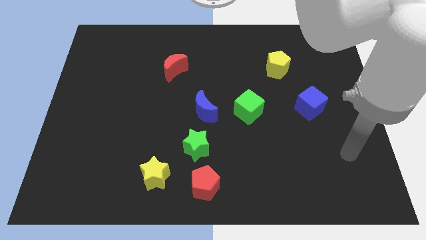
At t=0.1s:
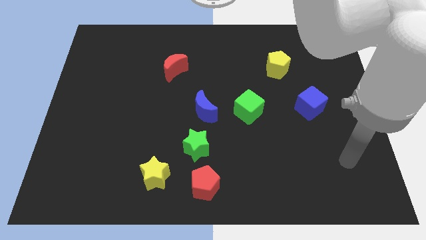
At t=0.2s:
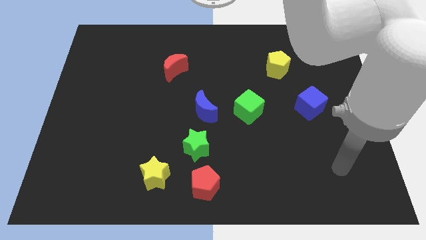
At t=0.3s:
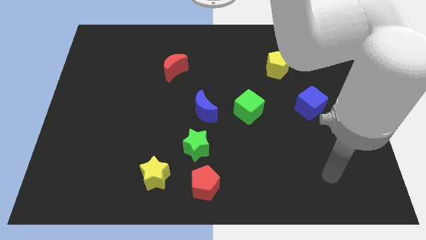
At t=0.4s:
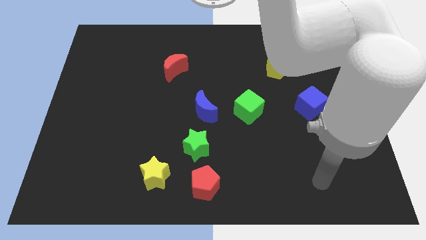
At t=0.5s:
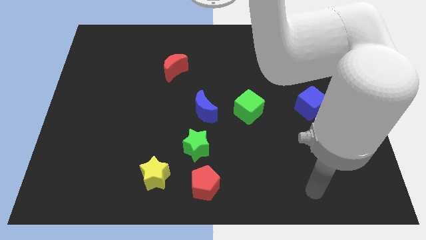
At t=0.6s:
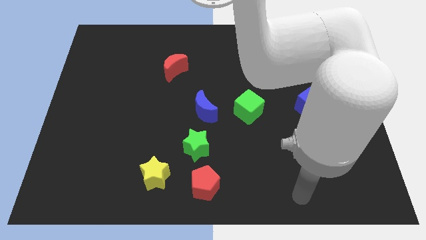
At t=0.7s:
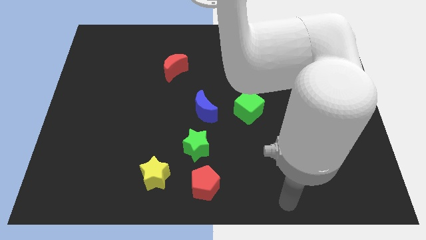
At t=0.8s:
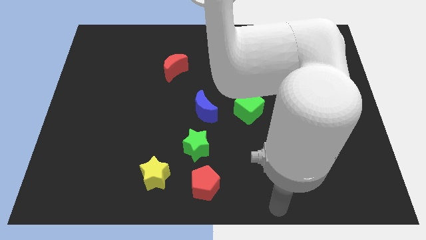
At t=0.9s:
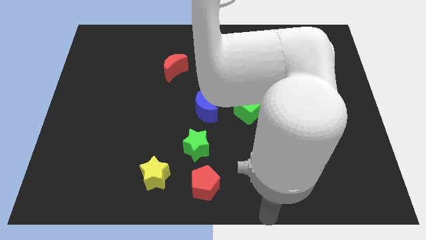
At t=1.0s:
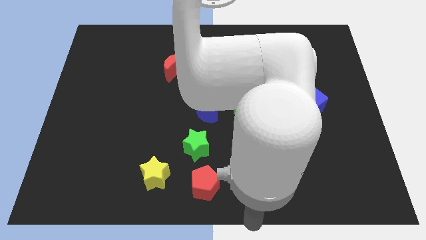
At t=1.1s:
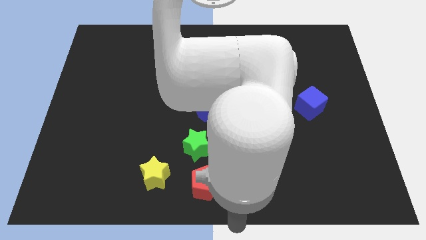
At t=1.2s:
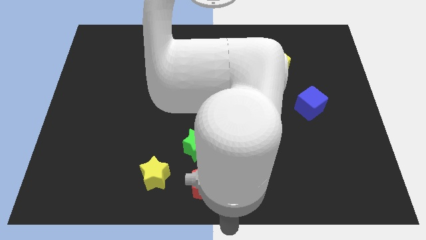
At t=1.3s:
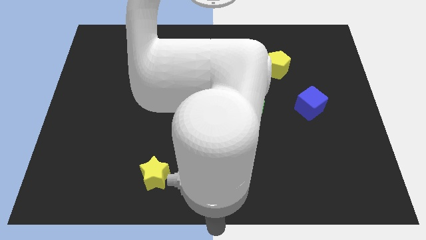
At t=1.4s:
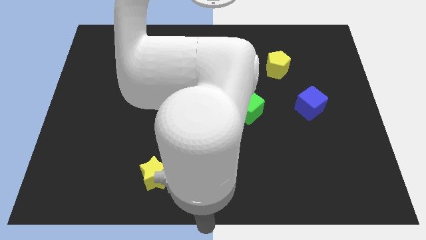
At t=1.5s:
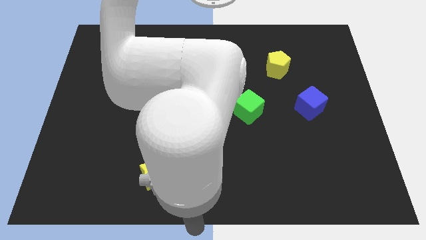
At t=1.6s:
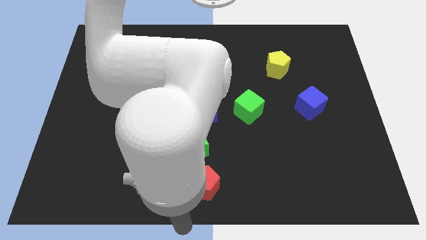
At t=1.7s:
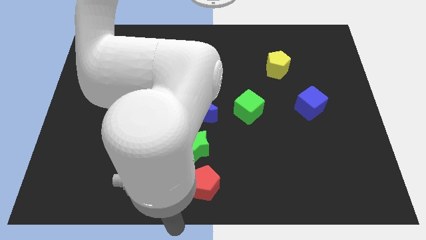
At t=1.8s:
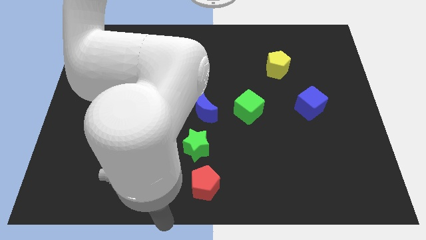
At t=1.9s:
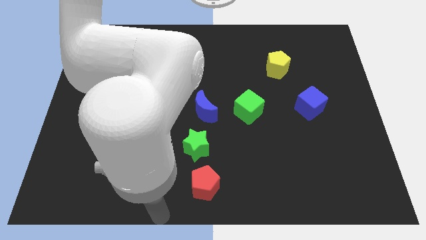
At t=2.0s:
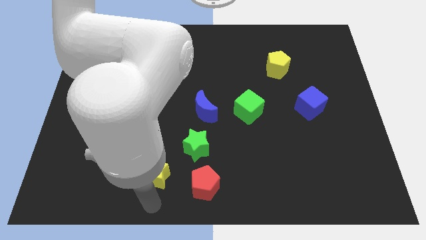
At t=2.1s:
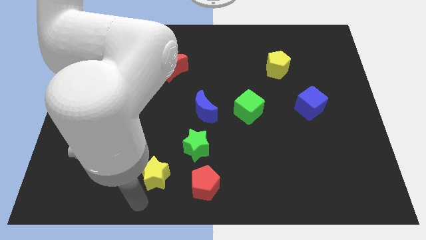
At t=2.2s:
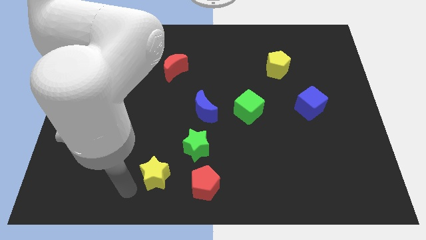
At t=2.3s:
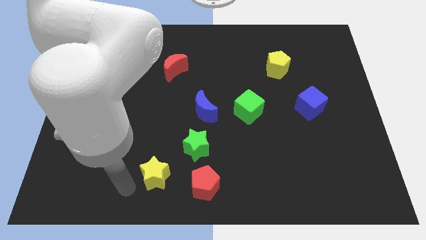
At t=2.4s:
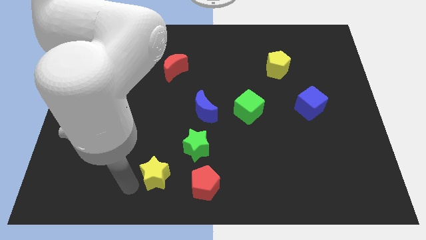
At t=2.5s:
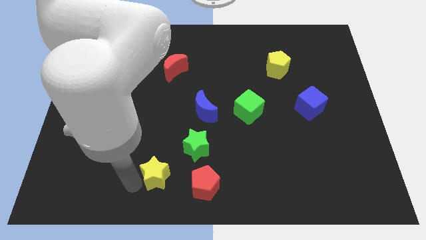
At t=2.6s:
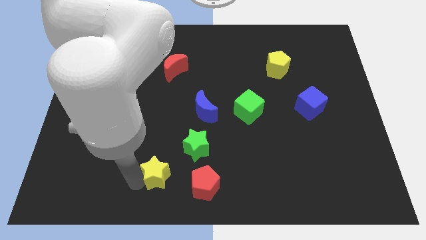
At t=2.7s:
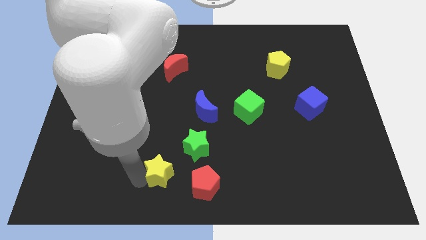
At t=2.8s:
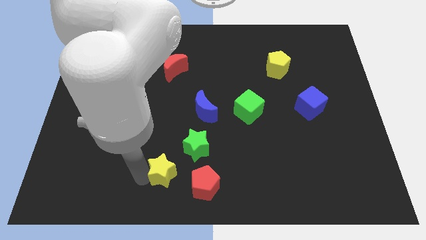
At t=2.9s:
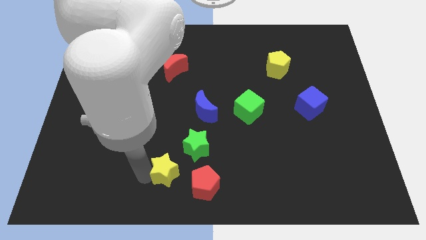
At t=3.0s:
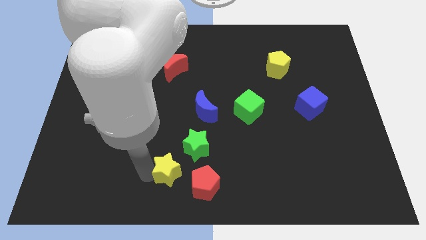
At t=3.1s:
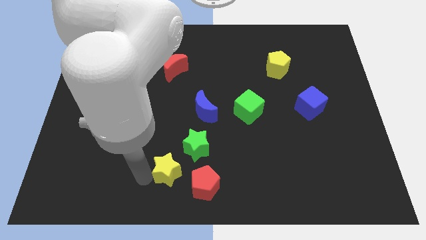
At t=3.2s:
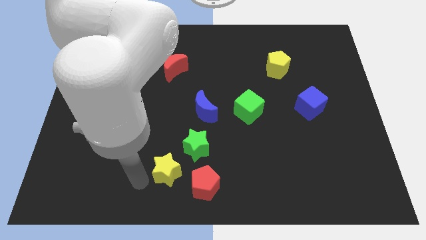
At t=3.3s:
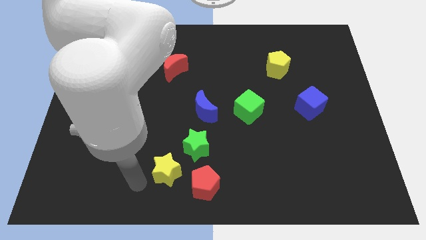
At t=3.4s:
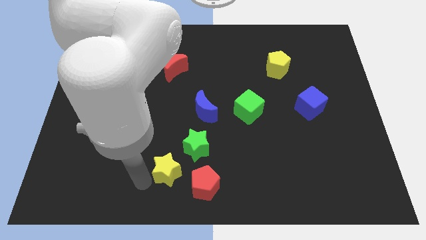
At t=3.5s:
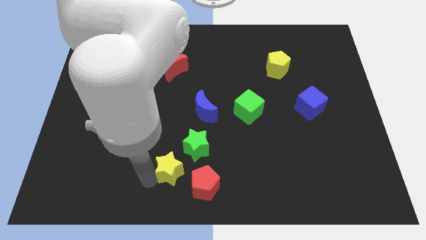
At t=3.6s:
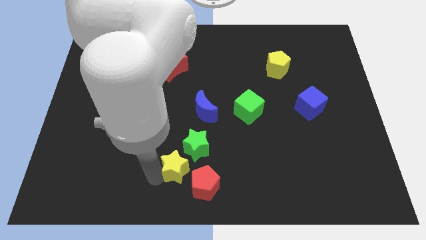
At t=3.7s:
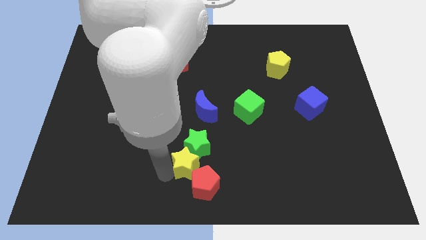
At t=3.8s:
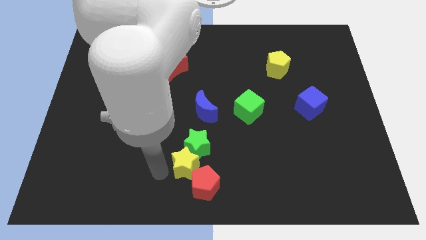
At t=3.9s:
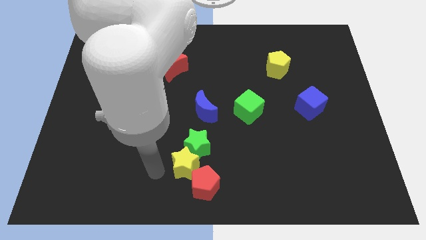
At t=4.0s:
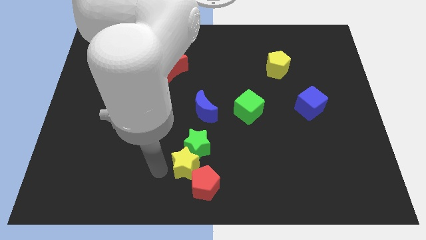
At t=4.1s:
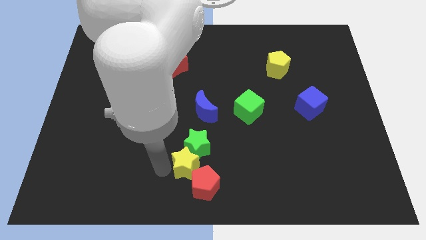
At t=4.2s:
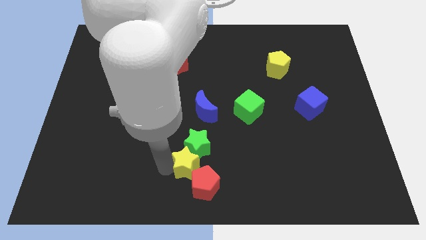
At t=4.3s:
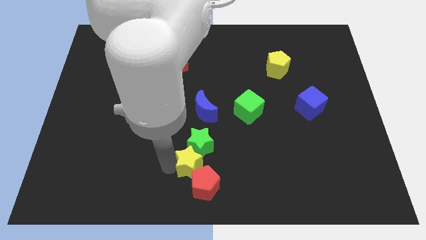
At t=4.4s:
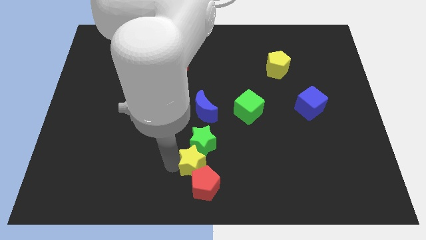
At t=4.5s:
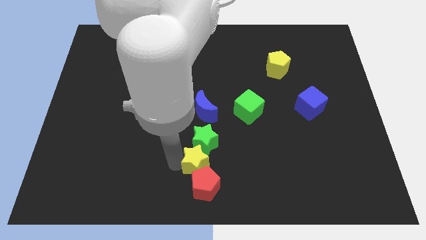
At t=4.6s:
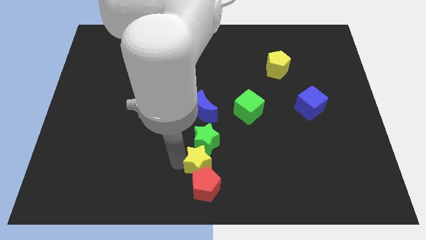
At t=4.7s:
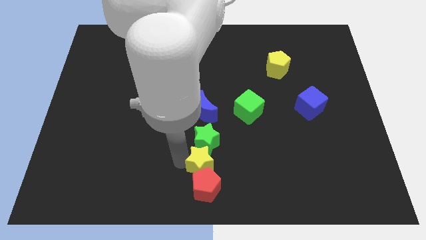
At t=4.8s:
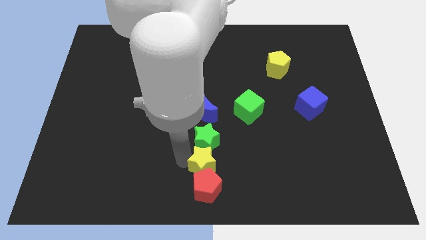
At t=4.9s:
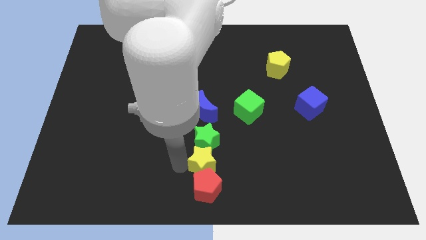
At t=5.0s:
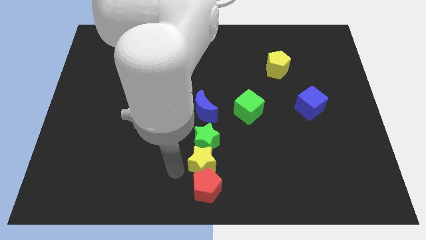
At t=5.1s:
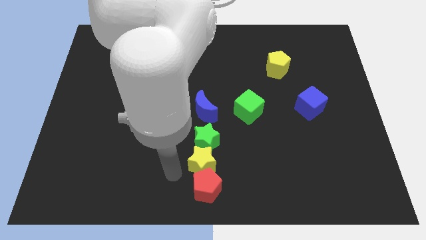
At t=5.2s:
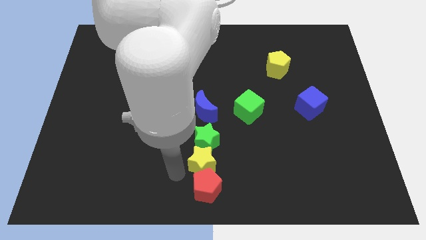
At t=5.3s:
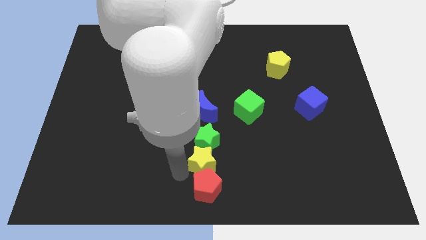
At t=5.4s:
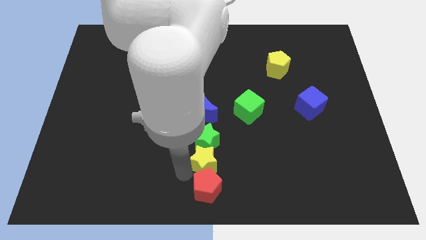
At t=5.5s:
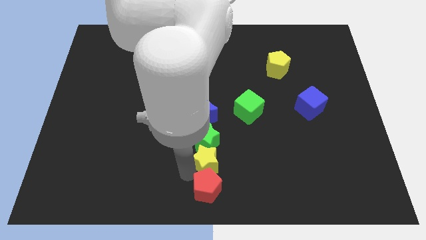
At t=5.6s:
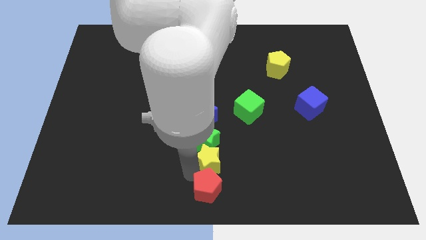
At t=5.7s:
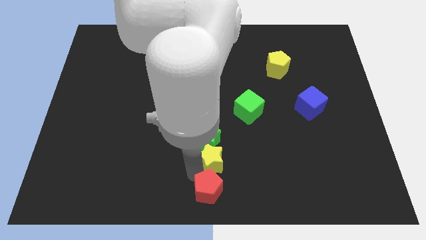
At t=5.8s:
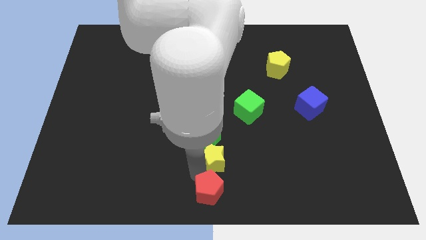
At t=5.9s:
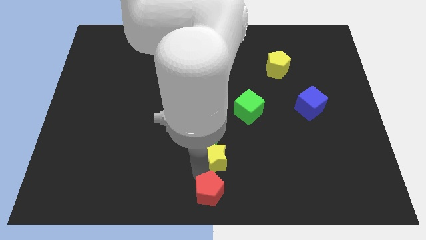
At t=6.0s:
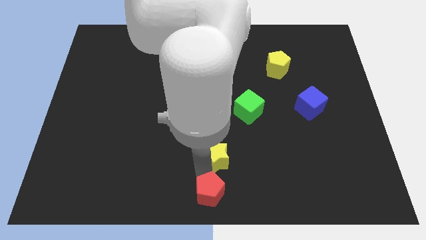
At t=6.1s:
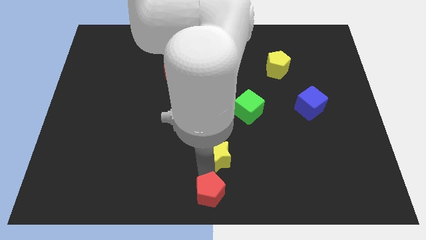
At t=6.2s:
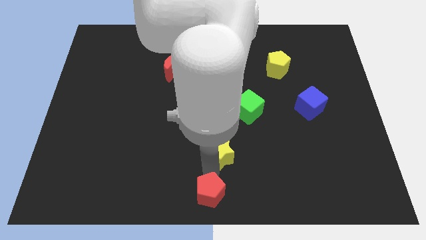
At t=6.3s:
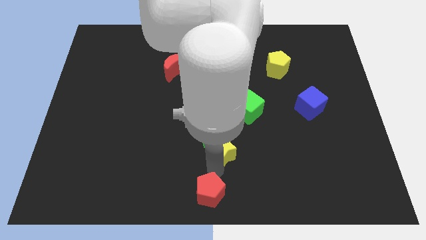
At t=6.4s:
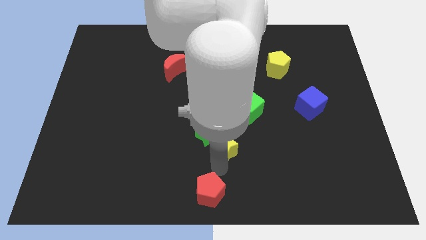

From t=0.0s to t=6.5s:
put the yellow star just right of the green star
